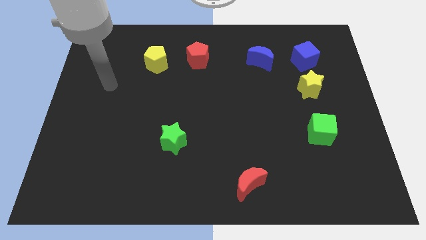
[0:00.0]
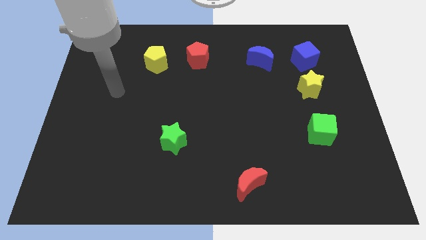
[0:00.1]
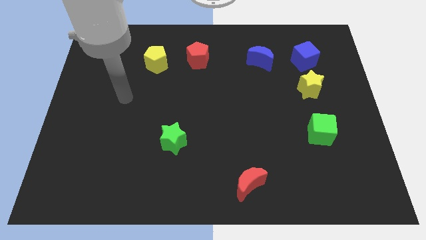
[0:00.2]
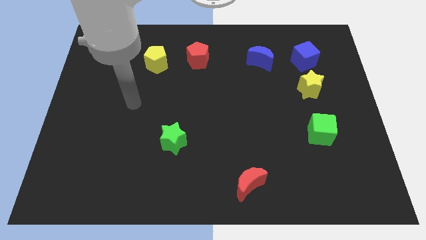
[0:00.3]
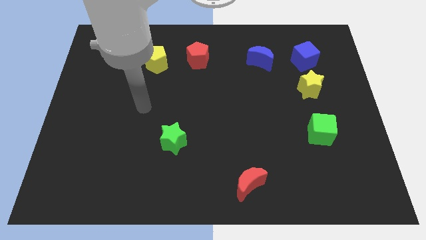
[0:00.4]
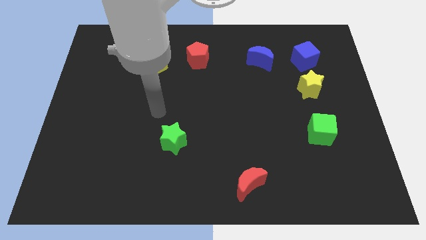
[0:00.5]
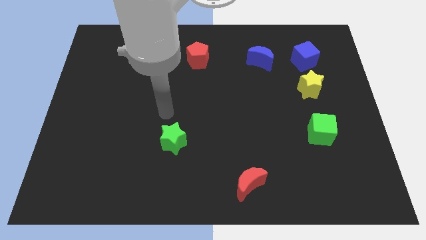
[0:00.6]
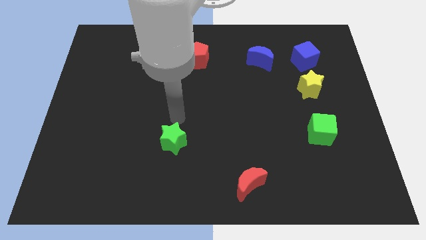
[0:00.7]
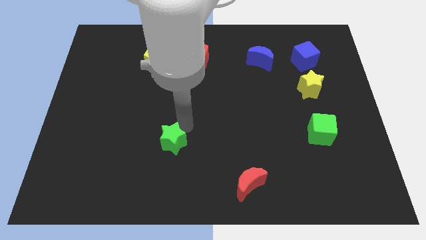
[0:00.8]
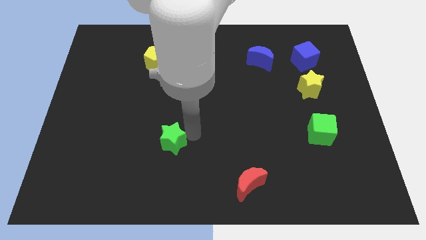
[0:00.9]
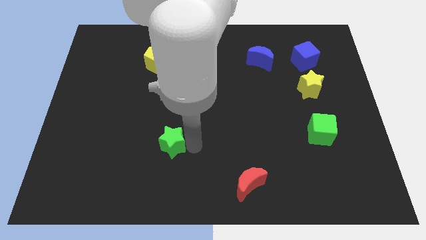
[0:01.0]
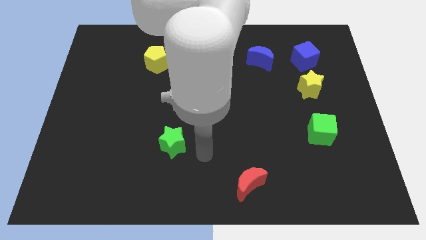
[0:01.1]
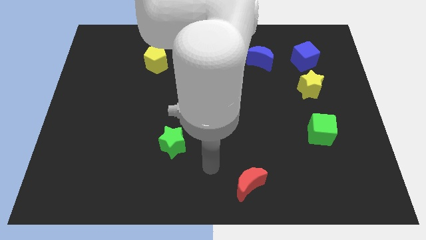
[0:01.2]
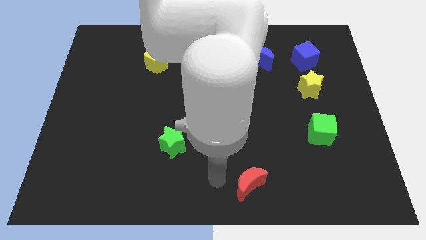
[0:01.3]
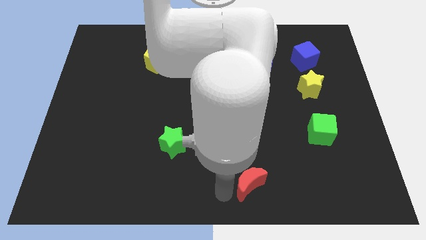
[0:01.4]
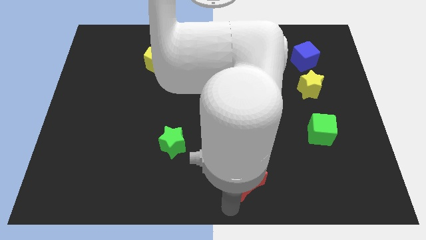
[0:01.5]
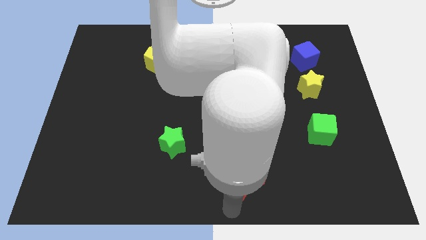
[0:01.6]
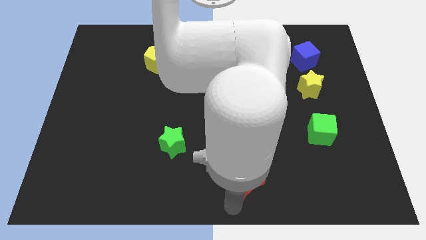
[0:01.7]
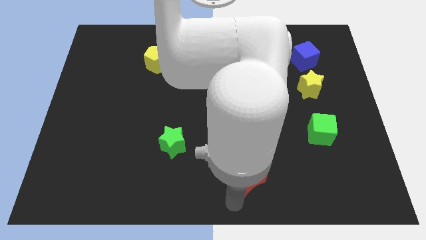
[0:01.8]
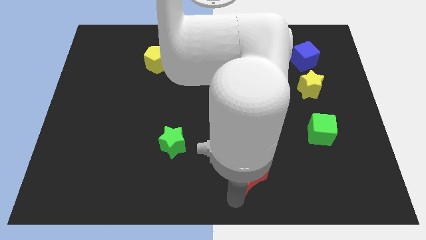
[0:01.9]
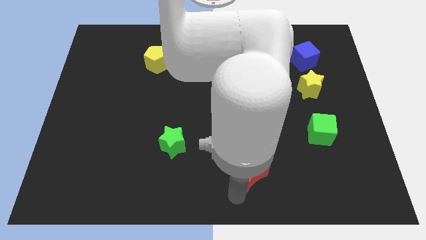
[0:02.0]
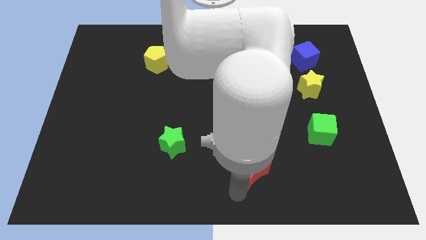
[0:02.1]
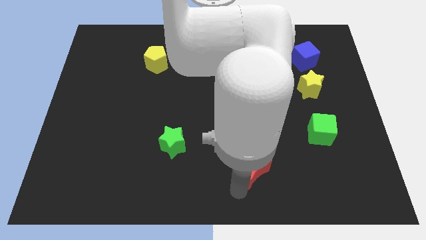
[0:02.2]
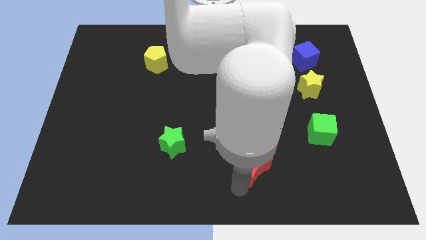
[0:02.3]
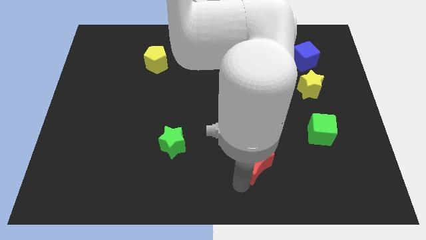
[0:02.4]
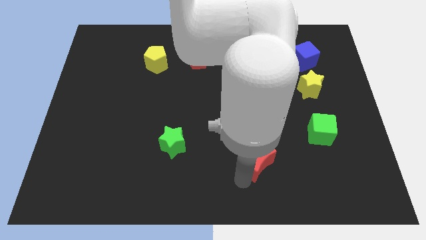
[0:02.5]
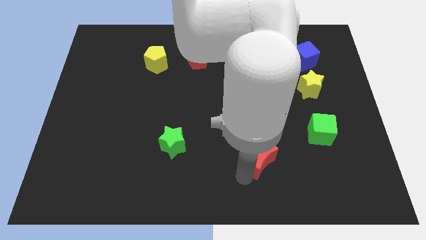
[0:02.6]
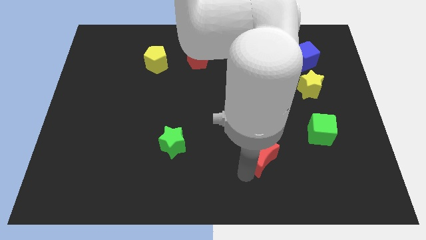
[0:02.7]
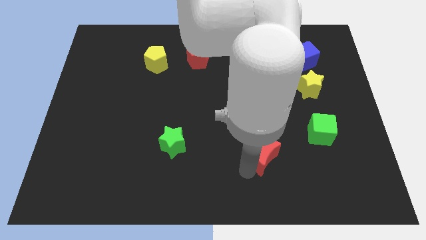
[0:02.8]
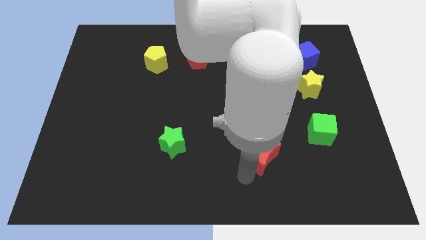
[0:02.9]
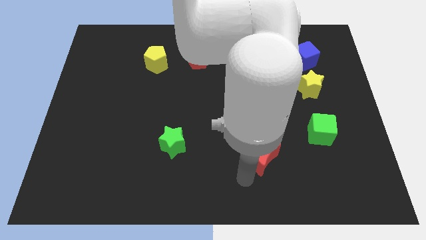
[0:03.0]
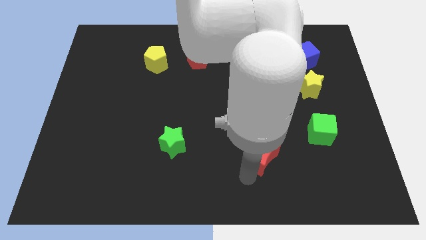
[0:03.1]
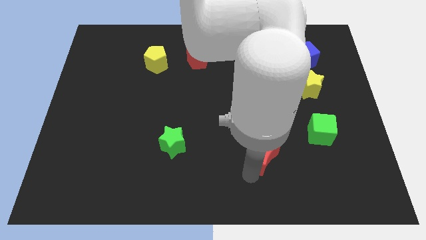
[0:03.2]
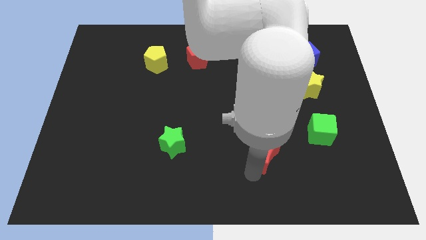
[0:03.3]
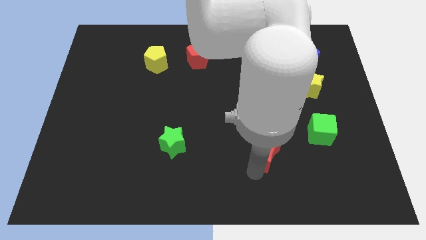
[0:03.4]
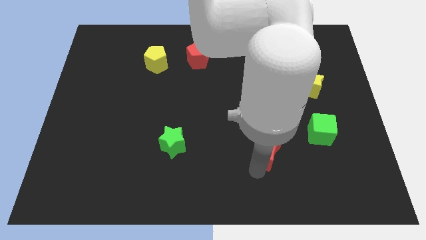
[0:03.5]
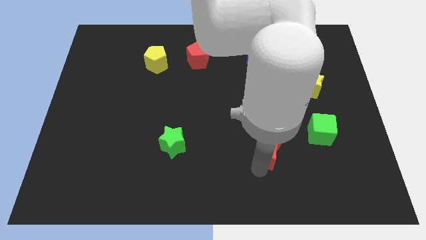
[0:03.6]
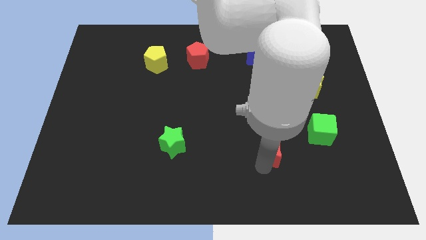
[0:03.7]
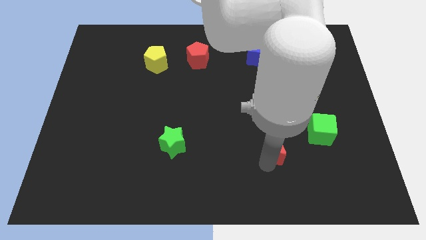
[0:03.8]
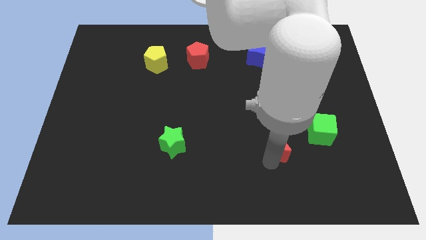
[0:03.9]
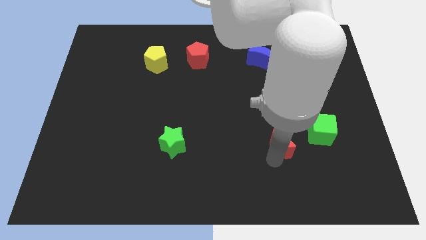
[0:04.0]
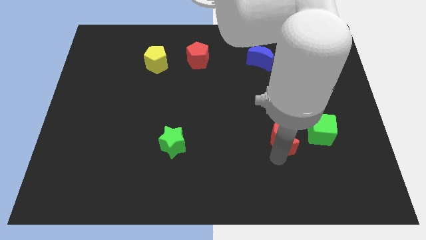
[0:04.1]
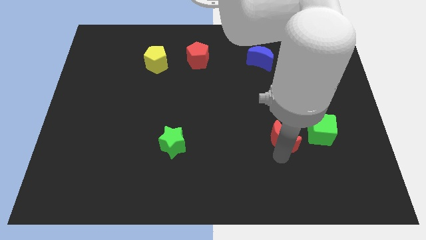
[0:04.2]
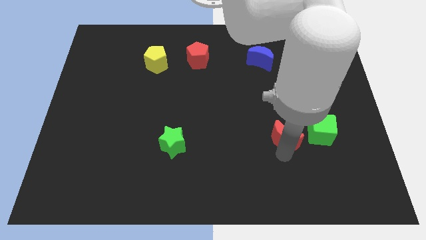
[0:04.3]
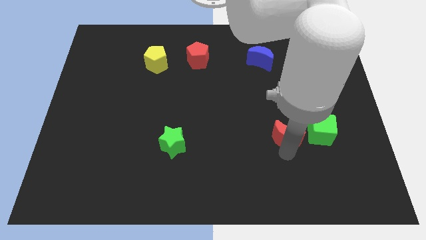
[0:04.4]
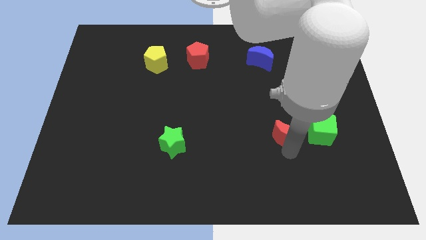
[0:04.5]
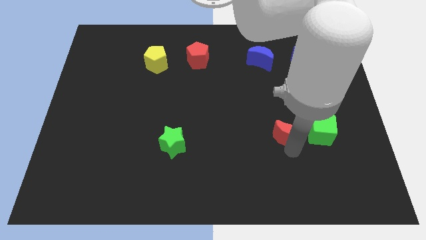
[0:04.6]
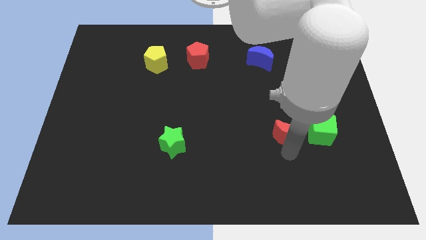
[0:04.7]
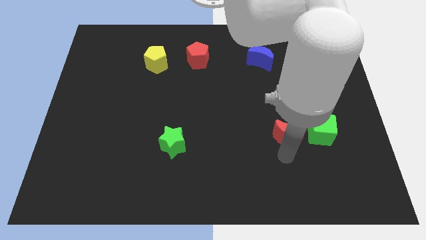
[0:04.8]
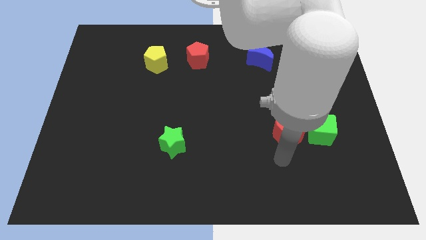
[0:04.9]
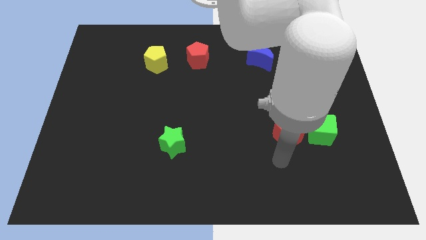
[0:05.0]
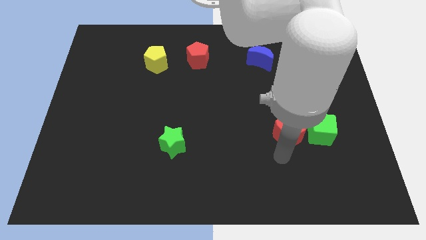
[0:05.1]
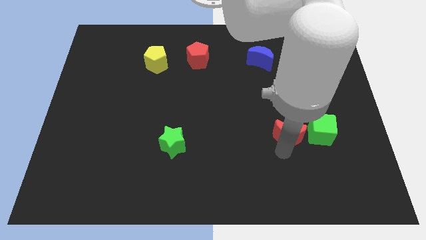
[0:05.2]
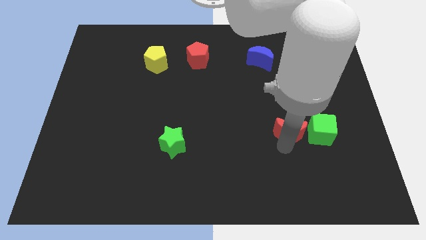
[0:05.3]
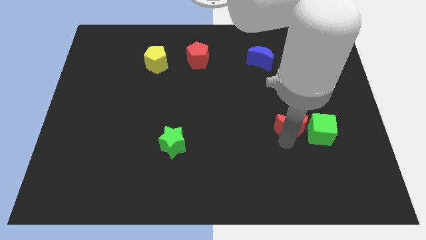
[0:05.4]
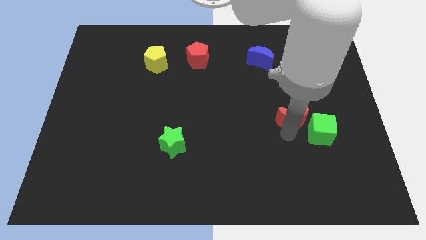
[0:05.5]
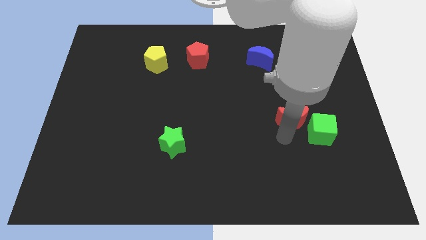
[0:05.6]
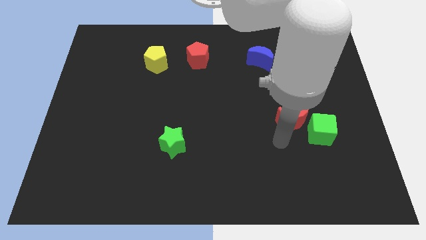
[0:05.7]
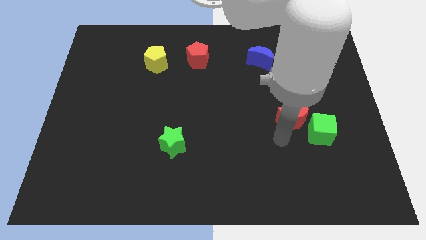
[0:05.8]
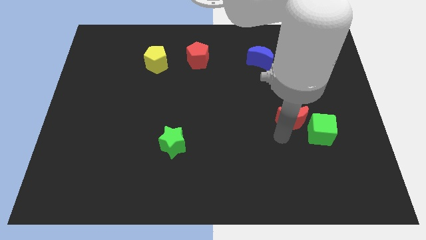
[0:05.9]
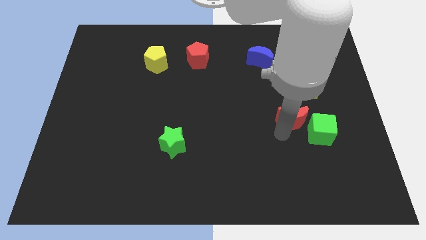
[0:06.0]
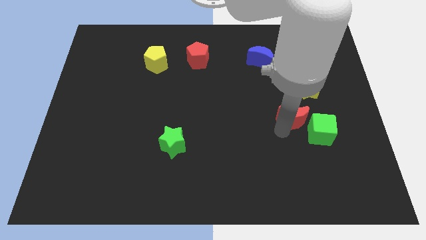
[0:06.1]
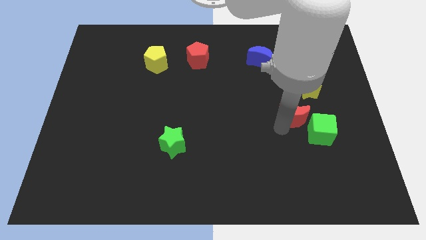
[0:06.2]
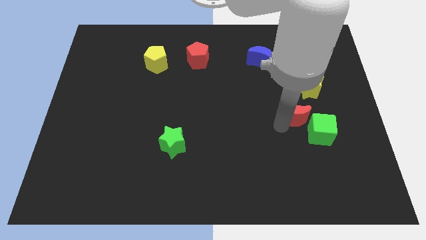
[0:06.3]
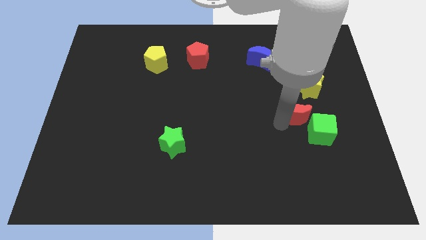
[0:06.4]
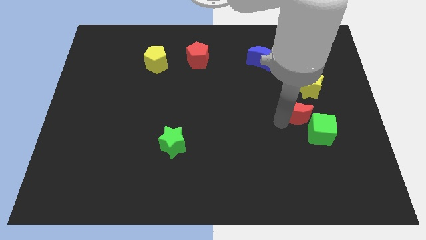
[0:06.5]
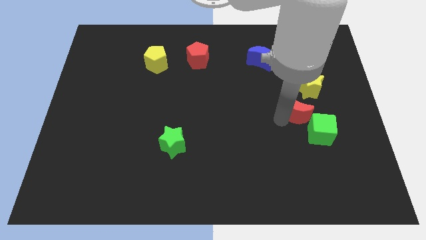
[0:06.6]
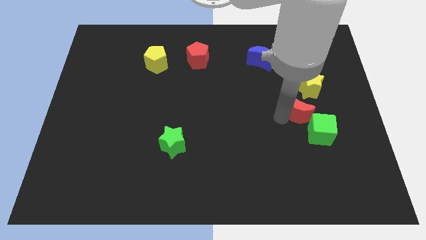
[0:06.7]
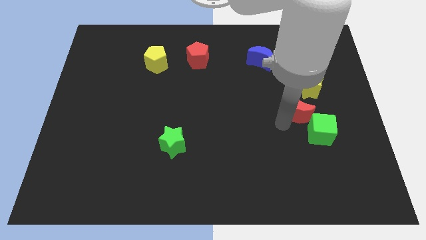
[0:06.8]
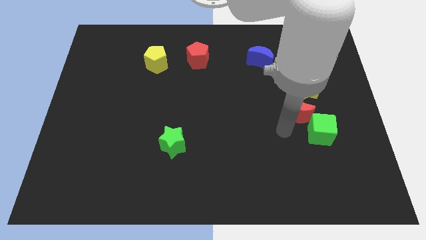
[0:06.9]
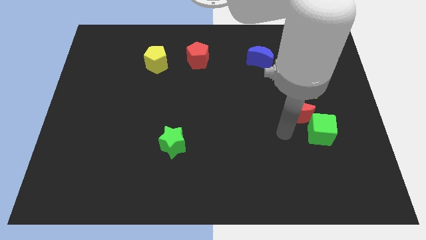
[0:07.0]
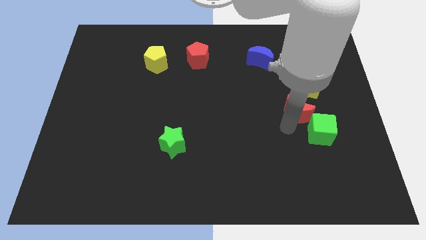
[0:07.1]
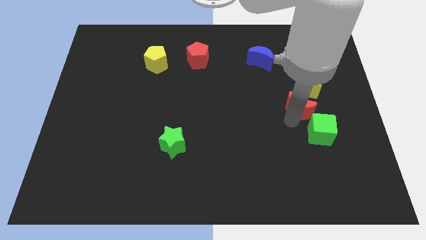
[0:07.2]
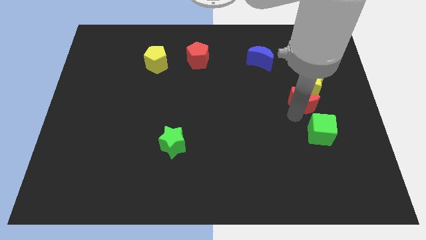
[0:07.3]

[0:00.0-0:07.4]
slide the red moon towards the yellow star
